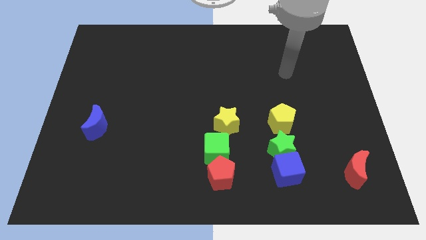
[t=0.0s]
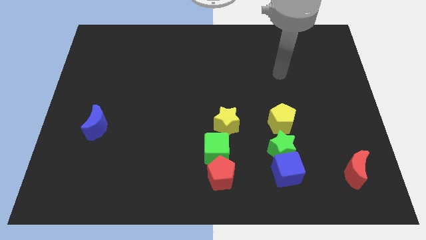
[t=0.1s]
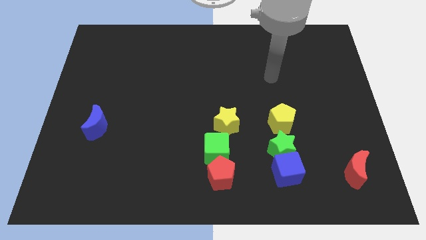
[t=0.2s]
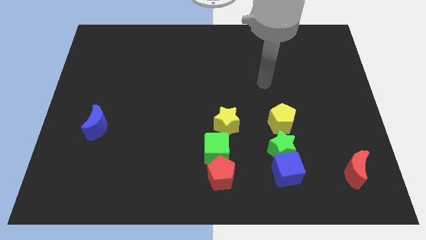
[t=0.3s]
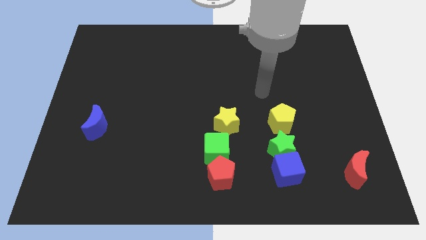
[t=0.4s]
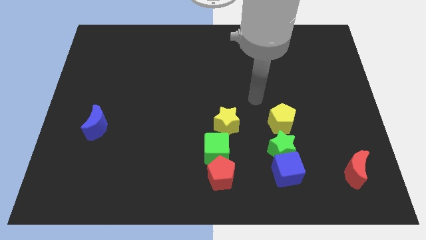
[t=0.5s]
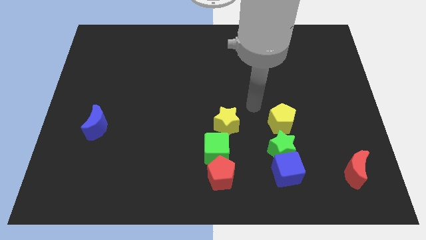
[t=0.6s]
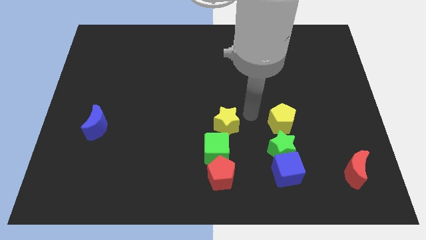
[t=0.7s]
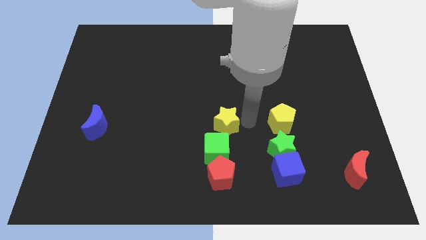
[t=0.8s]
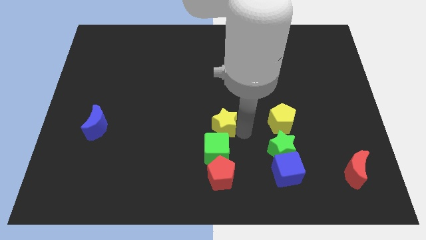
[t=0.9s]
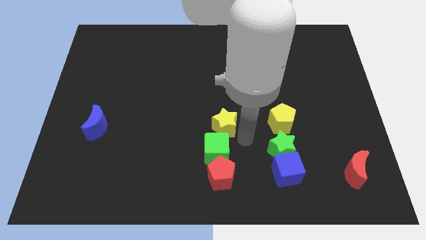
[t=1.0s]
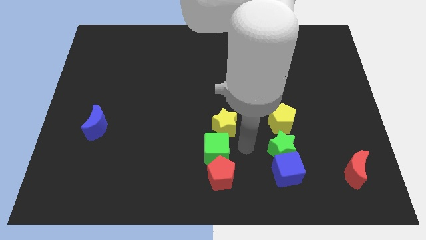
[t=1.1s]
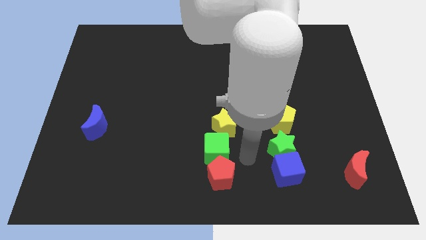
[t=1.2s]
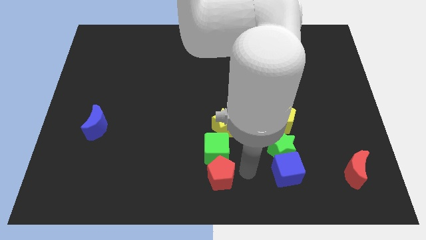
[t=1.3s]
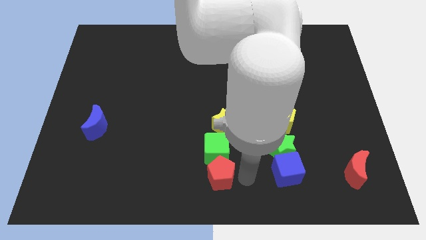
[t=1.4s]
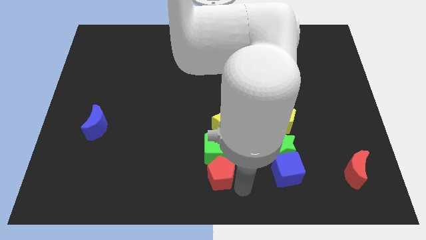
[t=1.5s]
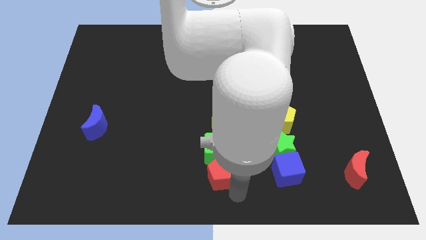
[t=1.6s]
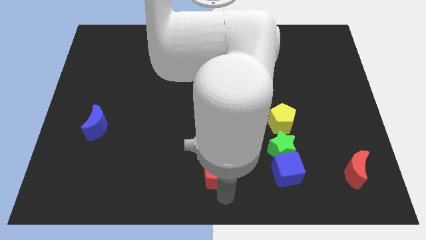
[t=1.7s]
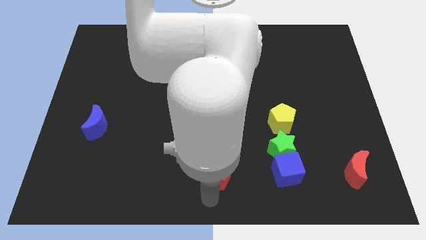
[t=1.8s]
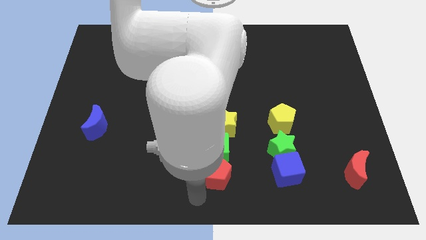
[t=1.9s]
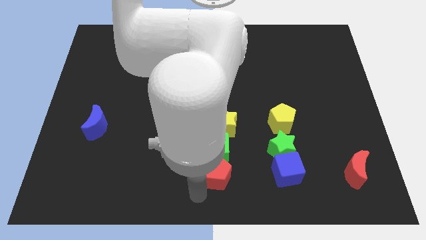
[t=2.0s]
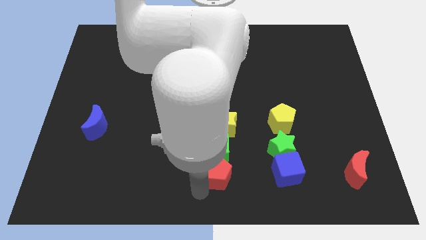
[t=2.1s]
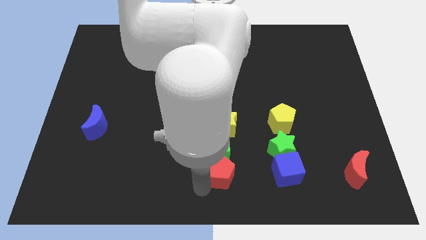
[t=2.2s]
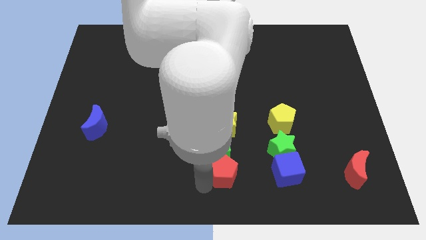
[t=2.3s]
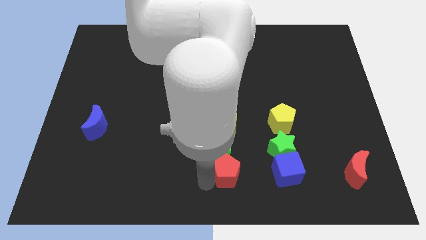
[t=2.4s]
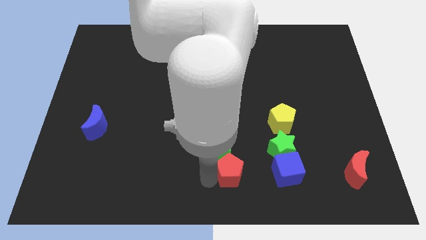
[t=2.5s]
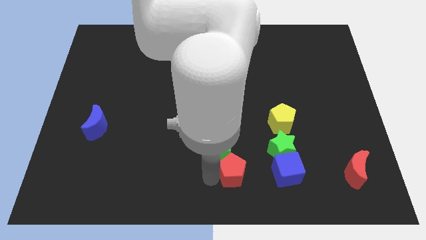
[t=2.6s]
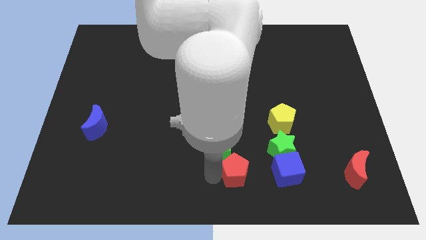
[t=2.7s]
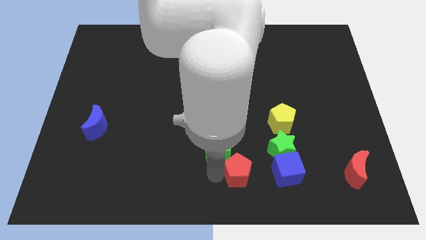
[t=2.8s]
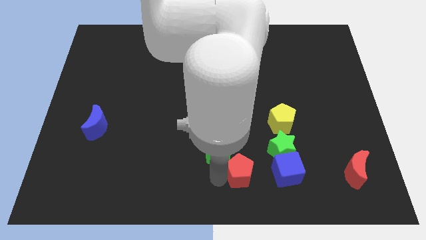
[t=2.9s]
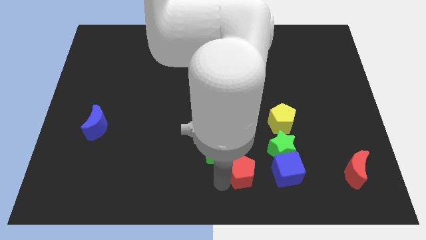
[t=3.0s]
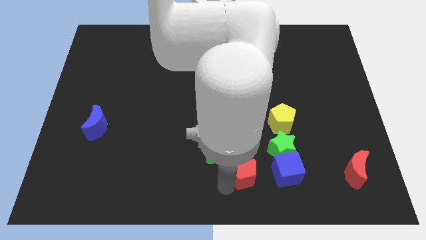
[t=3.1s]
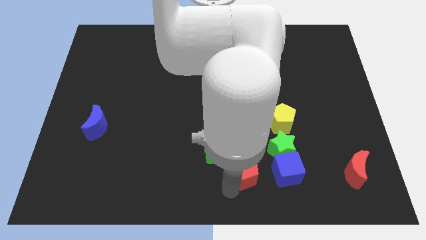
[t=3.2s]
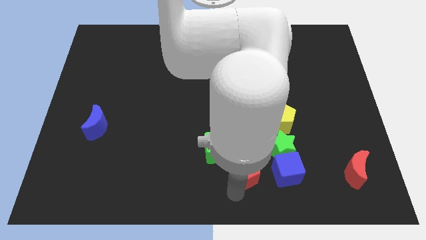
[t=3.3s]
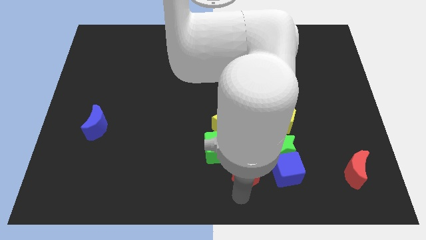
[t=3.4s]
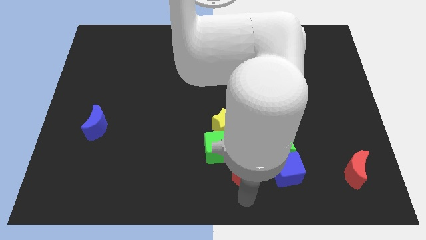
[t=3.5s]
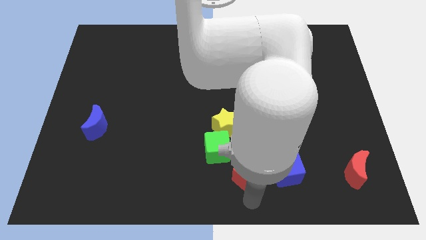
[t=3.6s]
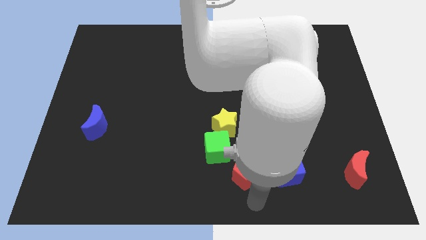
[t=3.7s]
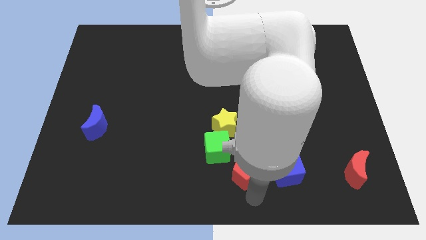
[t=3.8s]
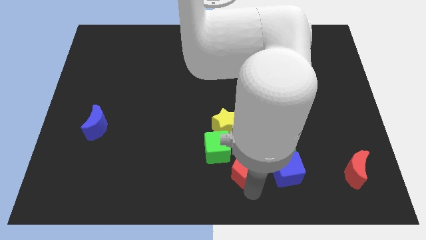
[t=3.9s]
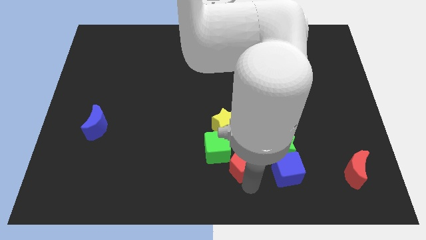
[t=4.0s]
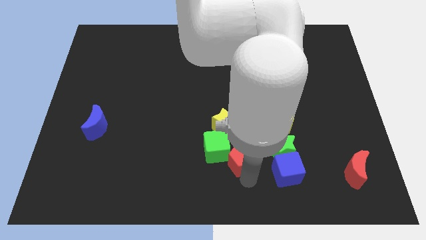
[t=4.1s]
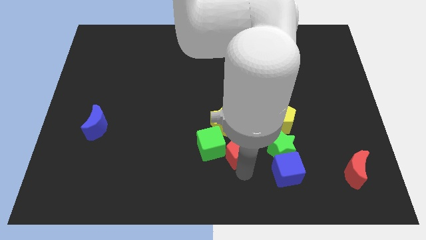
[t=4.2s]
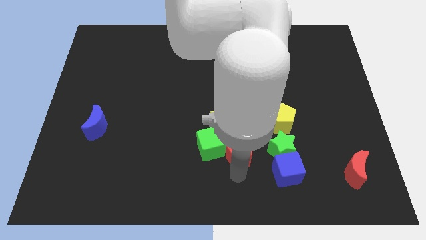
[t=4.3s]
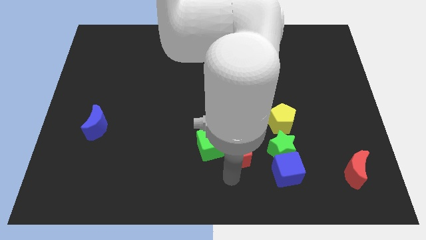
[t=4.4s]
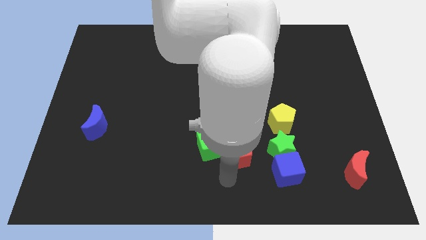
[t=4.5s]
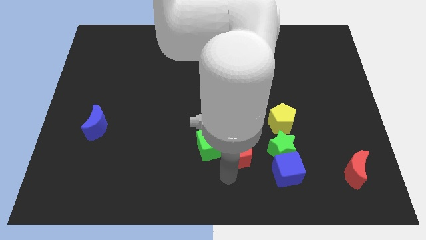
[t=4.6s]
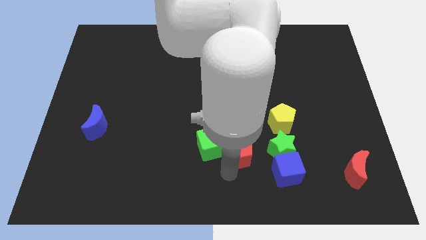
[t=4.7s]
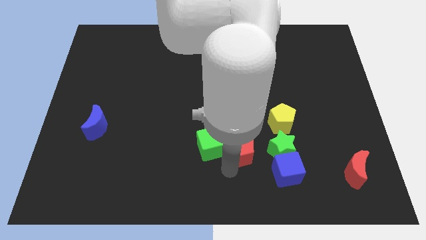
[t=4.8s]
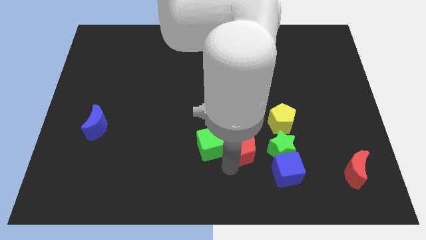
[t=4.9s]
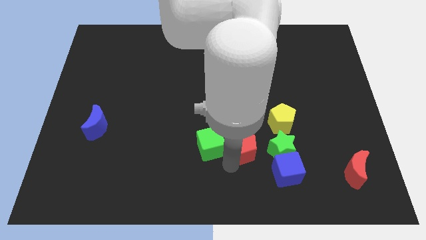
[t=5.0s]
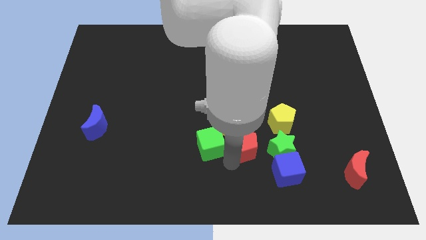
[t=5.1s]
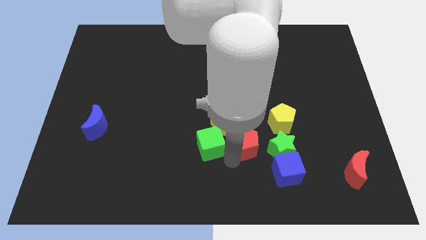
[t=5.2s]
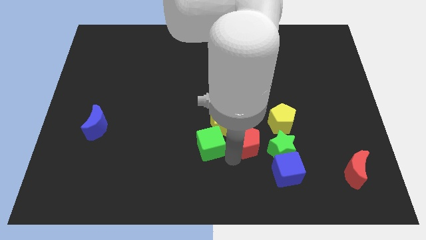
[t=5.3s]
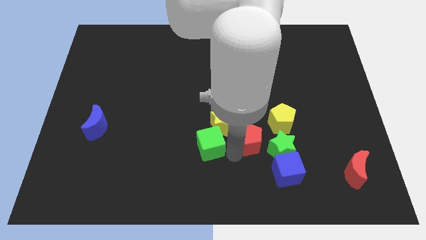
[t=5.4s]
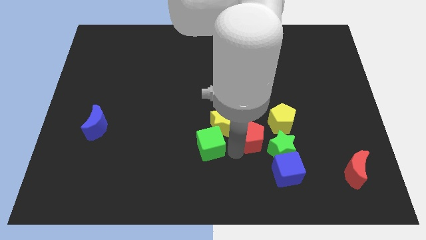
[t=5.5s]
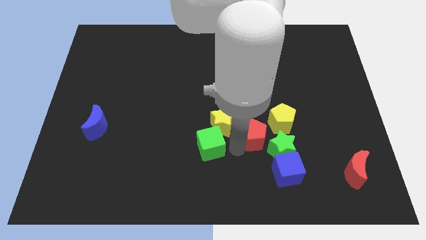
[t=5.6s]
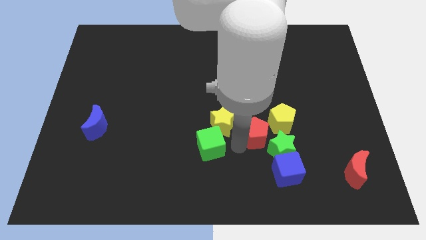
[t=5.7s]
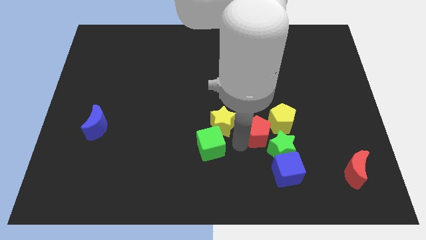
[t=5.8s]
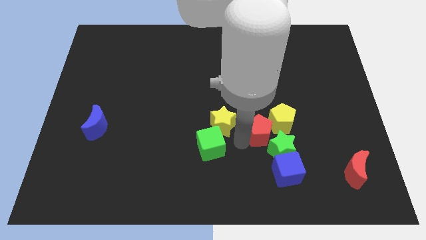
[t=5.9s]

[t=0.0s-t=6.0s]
put the red pentagon to the top side of the green star

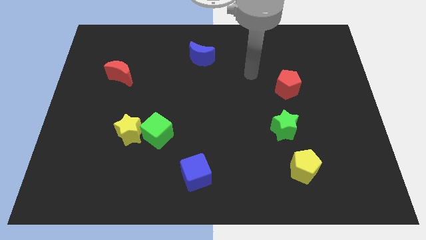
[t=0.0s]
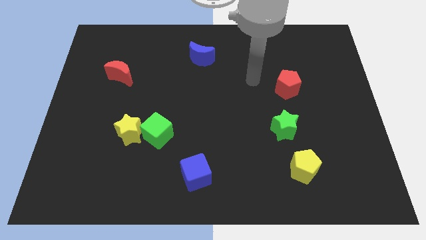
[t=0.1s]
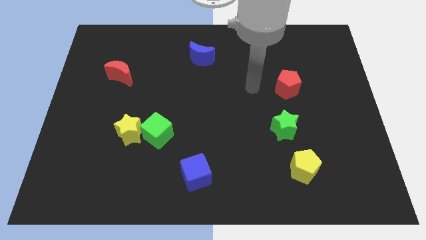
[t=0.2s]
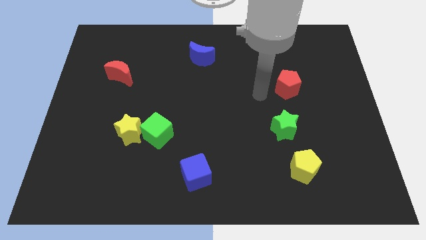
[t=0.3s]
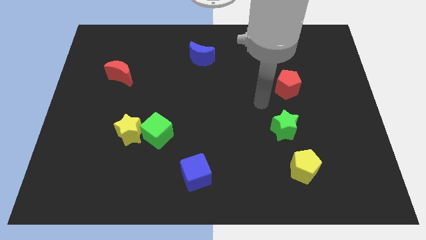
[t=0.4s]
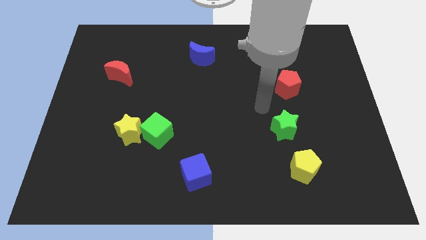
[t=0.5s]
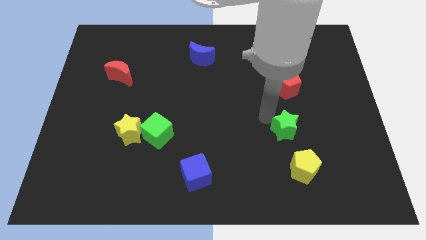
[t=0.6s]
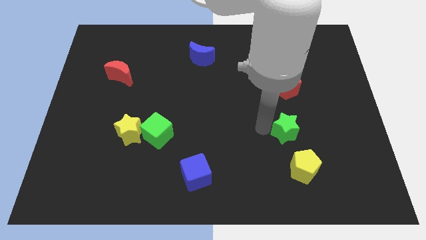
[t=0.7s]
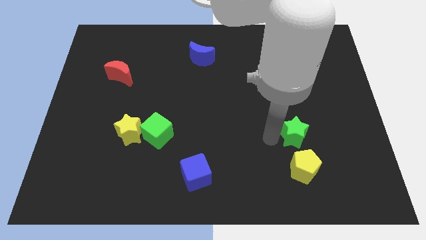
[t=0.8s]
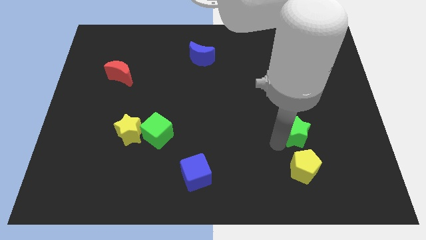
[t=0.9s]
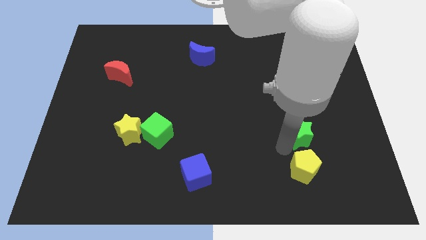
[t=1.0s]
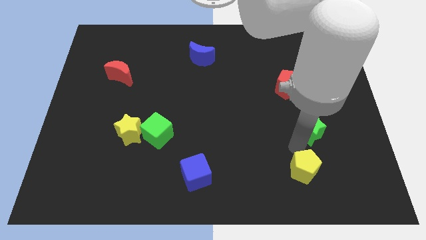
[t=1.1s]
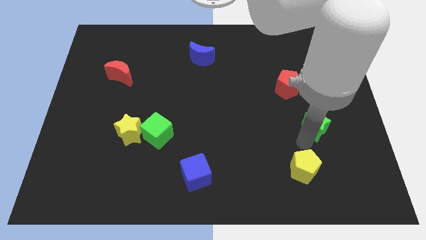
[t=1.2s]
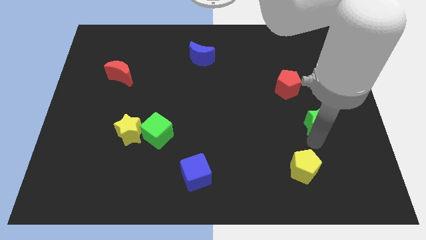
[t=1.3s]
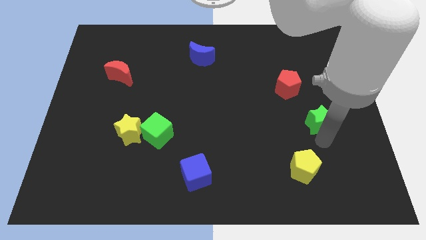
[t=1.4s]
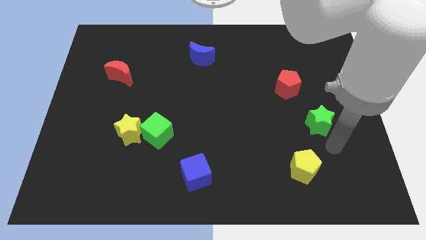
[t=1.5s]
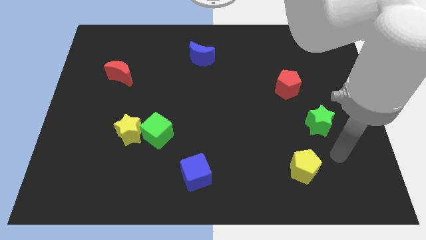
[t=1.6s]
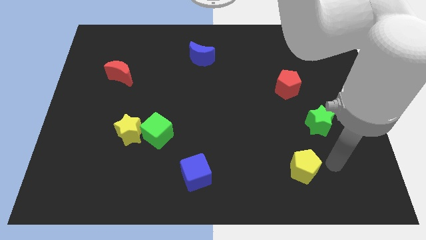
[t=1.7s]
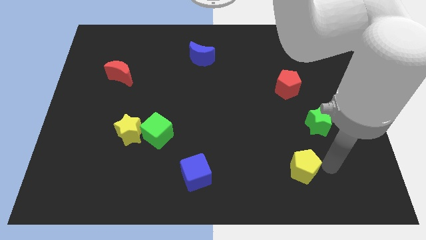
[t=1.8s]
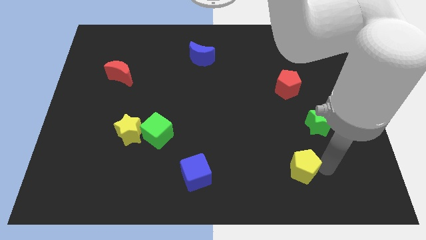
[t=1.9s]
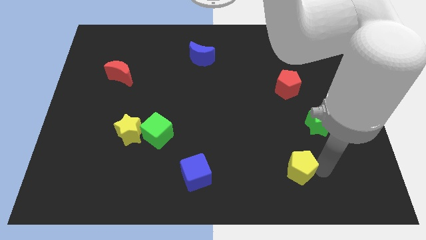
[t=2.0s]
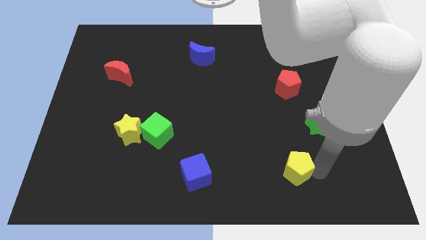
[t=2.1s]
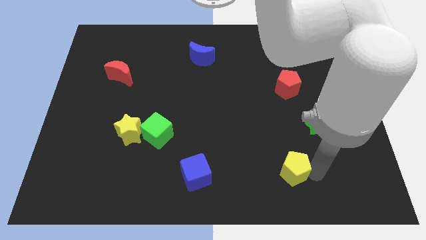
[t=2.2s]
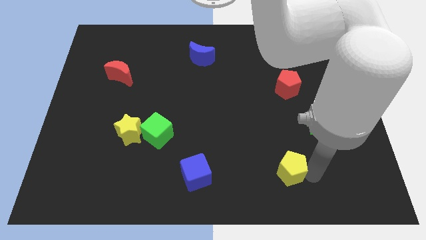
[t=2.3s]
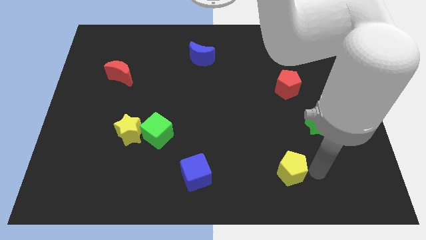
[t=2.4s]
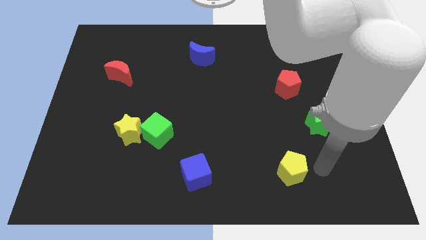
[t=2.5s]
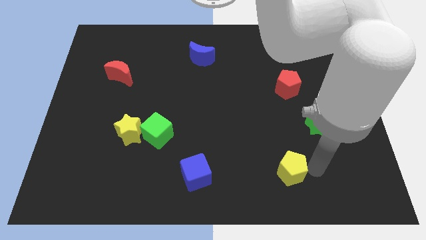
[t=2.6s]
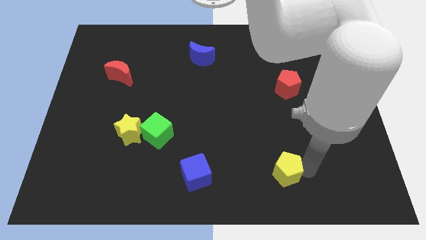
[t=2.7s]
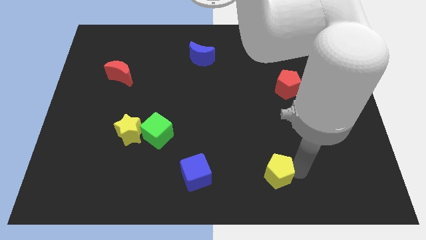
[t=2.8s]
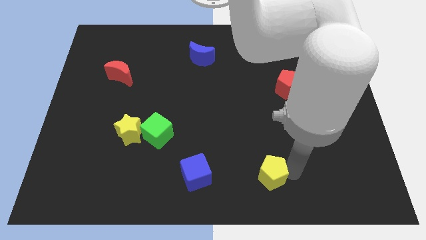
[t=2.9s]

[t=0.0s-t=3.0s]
put the yellow pentagon to the right of the blue cube
